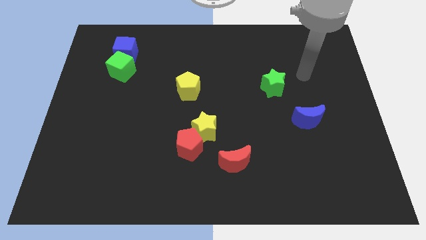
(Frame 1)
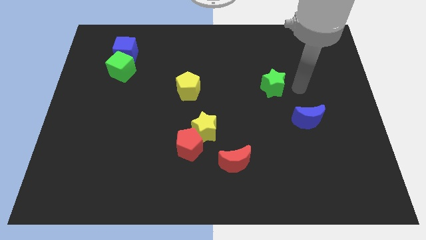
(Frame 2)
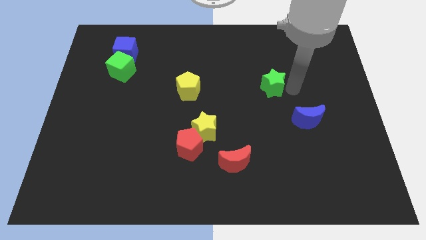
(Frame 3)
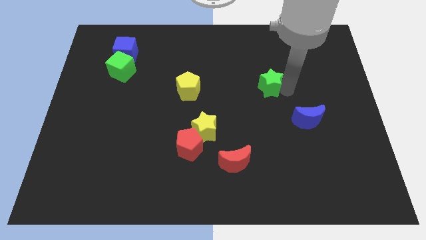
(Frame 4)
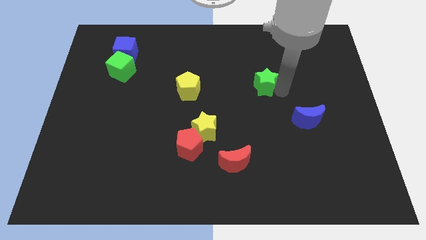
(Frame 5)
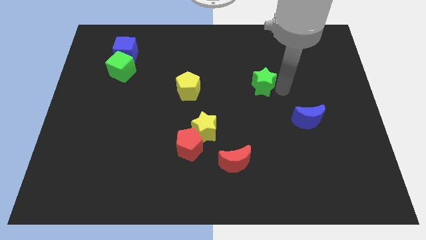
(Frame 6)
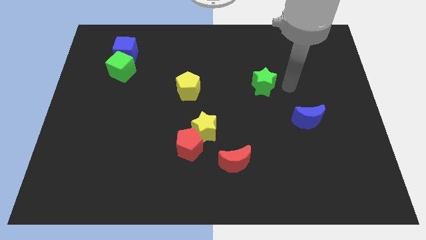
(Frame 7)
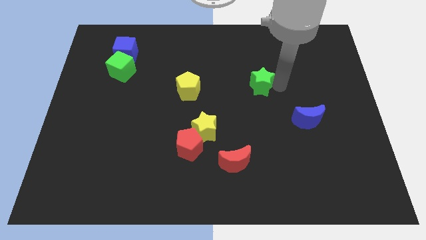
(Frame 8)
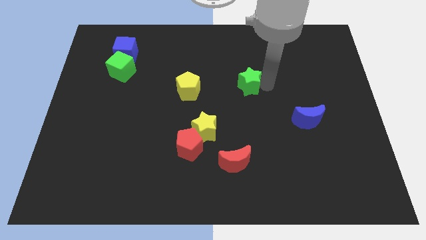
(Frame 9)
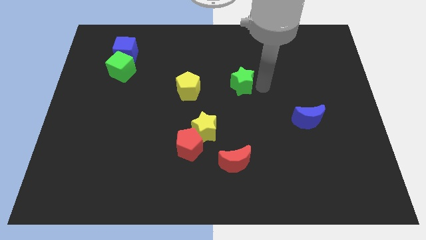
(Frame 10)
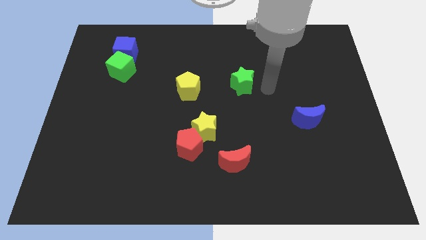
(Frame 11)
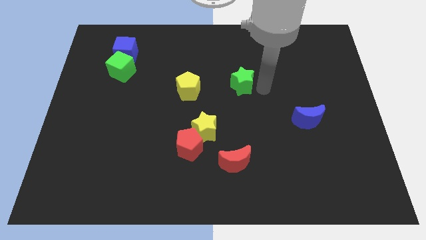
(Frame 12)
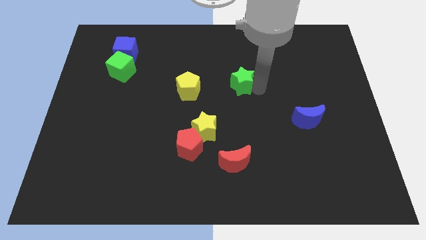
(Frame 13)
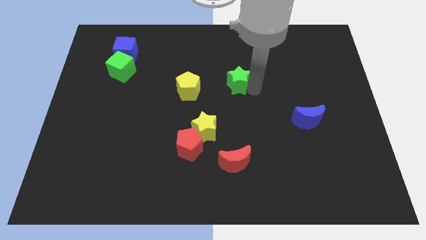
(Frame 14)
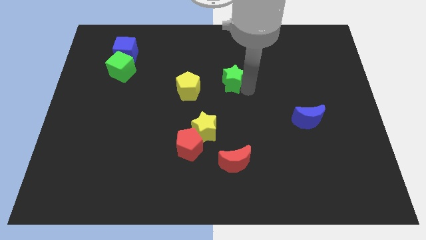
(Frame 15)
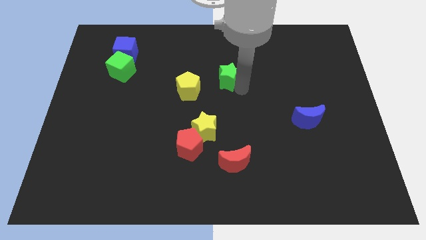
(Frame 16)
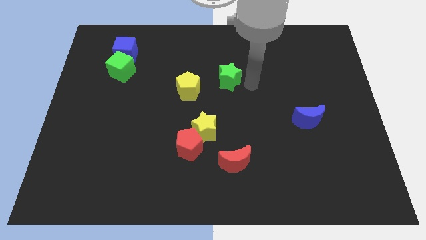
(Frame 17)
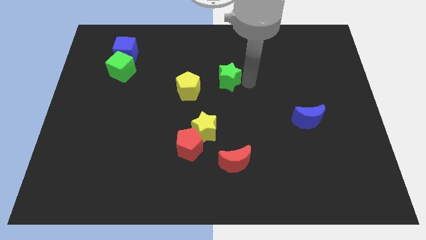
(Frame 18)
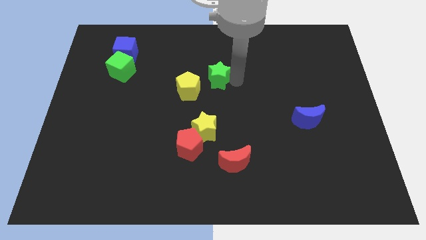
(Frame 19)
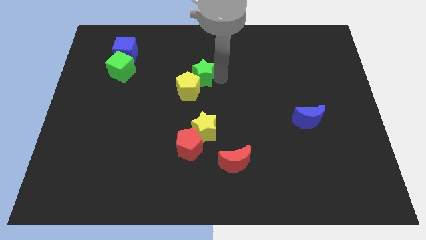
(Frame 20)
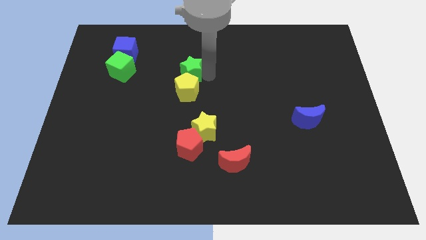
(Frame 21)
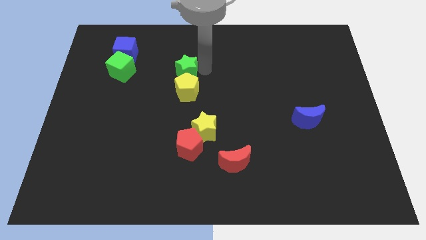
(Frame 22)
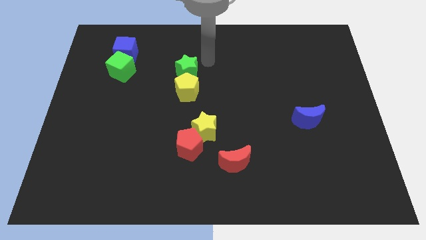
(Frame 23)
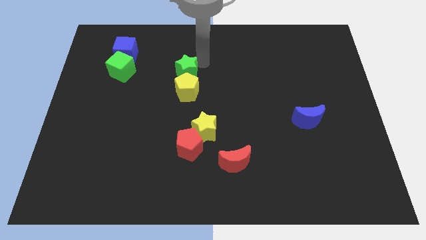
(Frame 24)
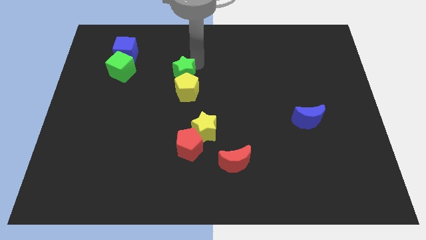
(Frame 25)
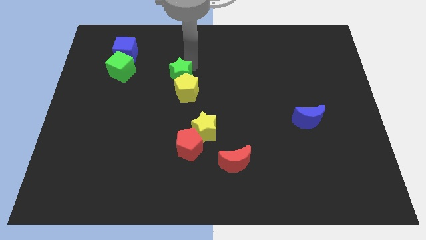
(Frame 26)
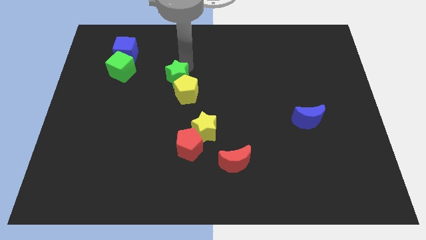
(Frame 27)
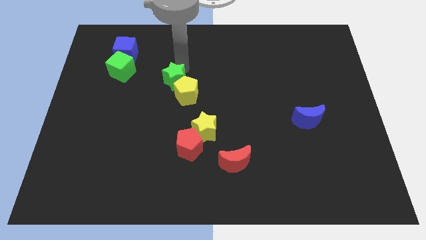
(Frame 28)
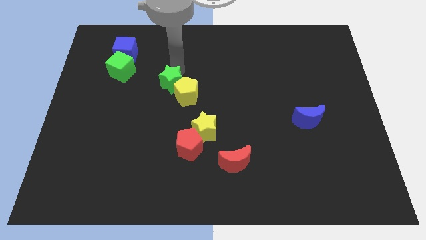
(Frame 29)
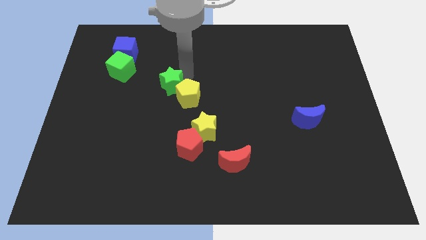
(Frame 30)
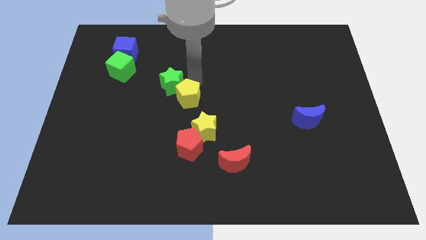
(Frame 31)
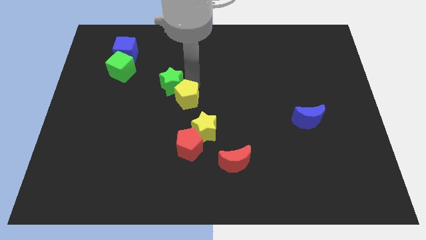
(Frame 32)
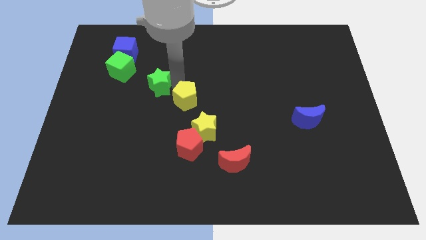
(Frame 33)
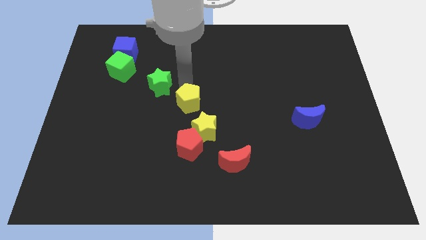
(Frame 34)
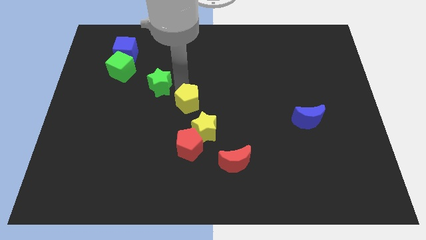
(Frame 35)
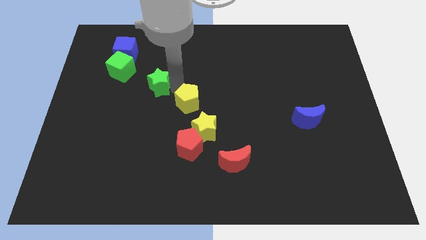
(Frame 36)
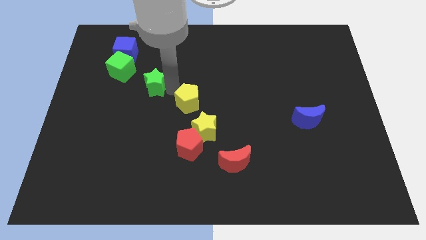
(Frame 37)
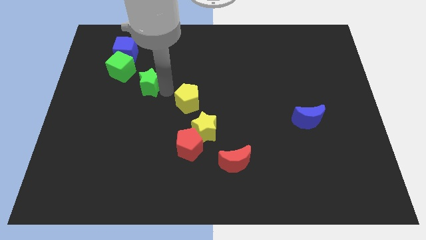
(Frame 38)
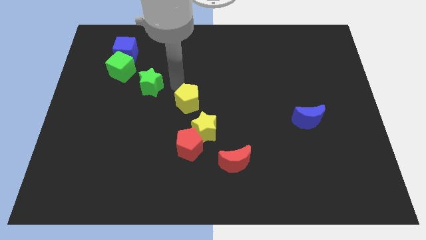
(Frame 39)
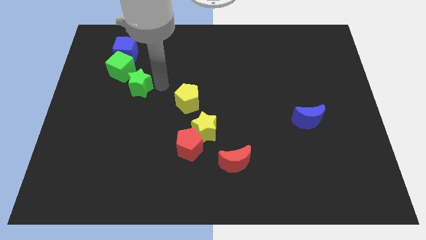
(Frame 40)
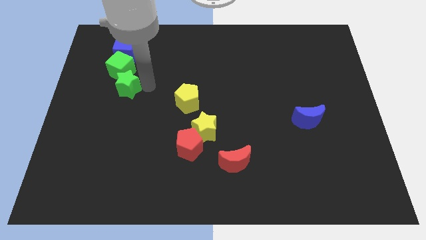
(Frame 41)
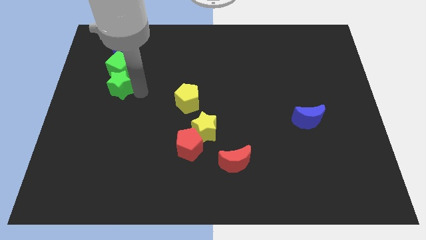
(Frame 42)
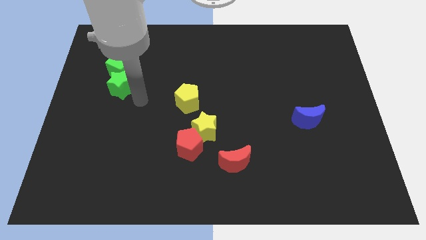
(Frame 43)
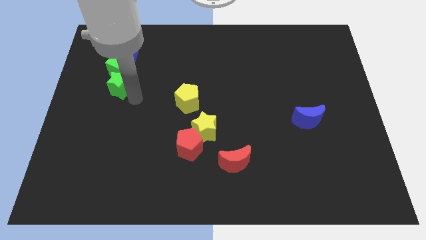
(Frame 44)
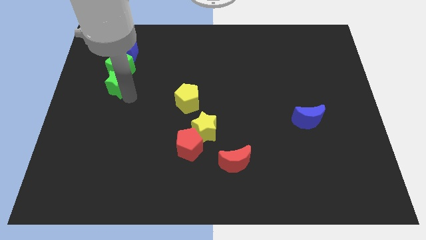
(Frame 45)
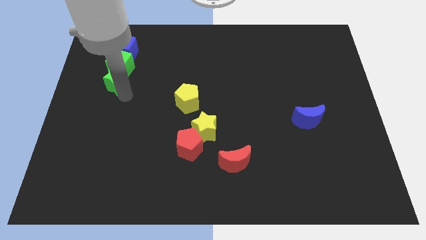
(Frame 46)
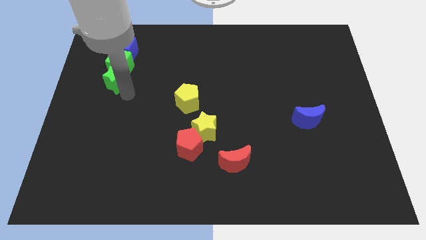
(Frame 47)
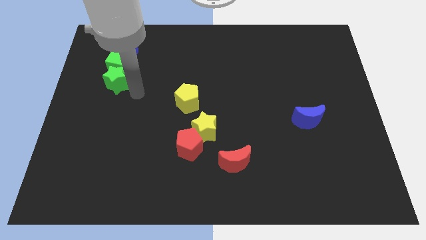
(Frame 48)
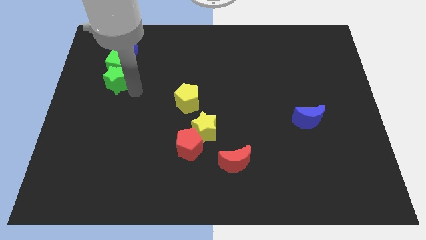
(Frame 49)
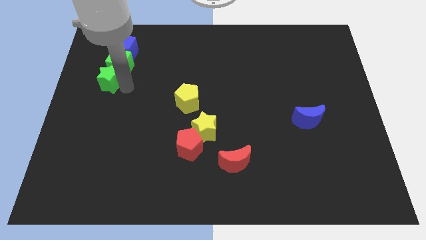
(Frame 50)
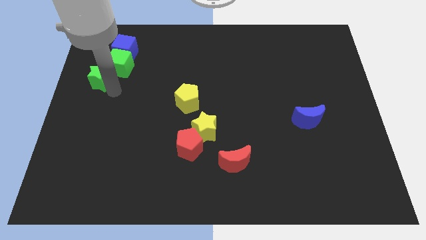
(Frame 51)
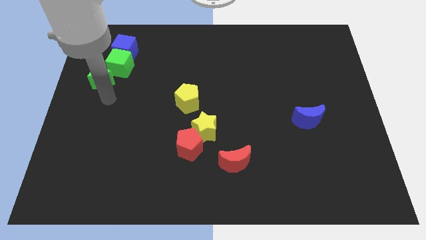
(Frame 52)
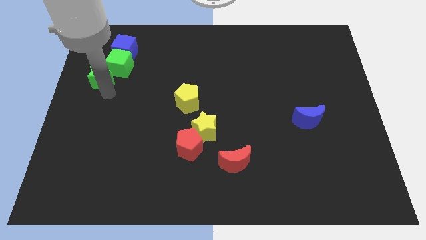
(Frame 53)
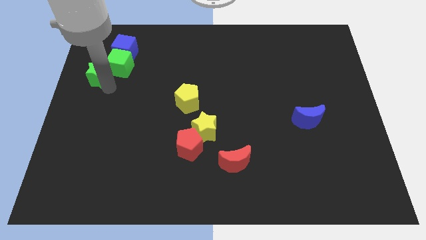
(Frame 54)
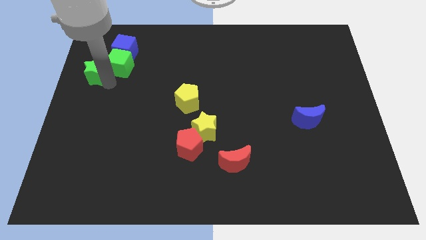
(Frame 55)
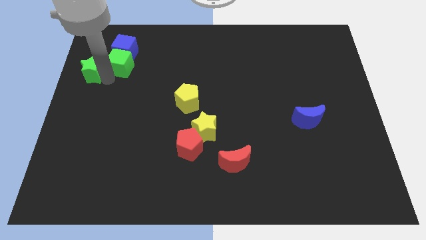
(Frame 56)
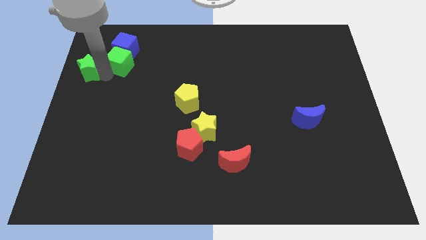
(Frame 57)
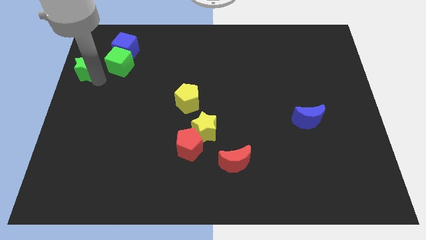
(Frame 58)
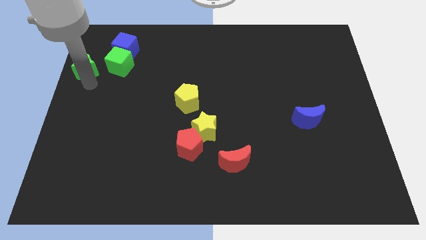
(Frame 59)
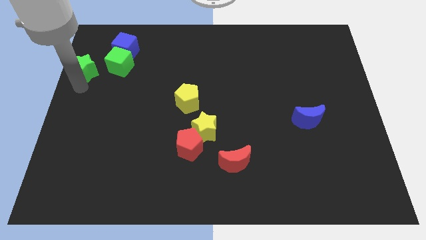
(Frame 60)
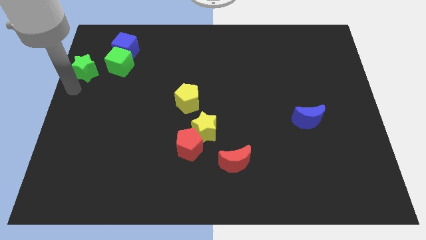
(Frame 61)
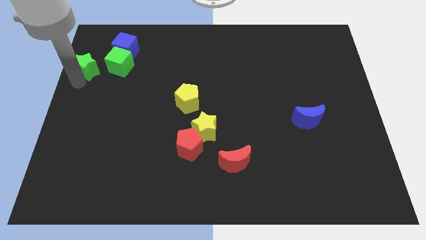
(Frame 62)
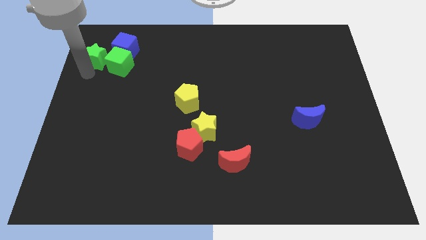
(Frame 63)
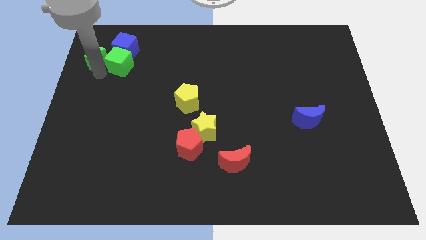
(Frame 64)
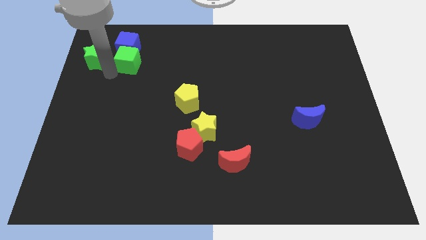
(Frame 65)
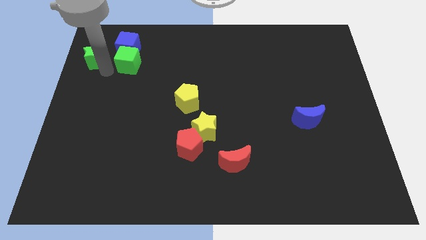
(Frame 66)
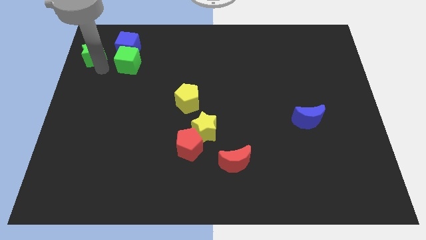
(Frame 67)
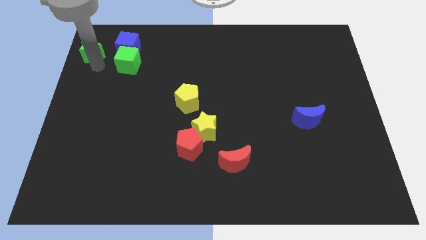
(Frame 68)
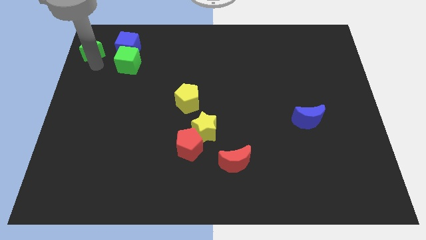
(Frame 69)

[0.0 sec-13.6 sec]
push the green star to the upper left corner
